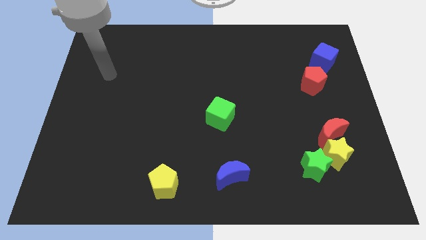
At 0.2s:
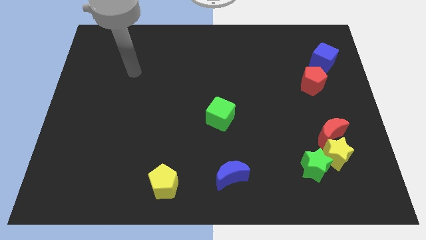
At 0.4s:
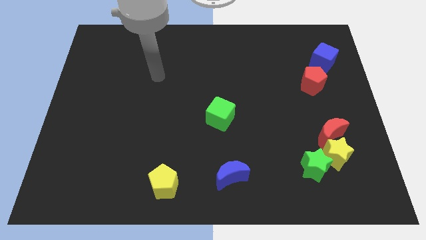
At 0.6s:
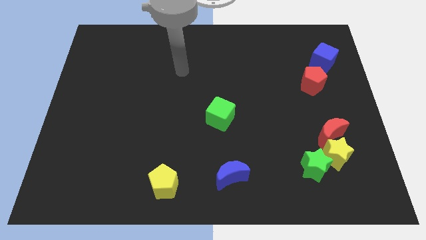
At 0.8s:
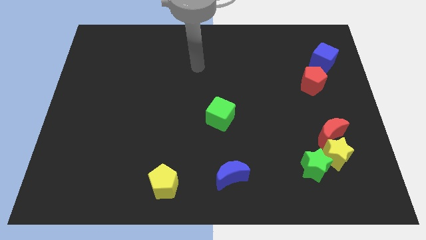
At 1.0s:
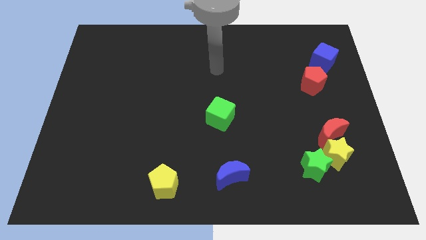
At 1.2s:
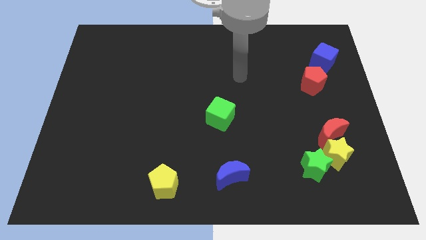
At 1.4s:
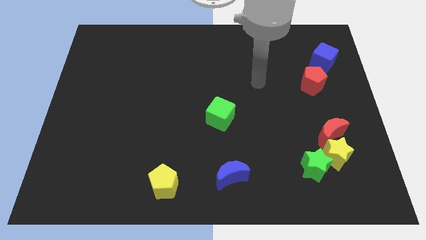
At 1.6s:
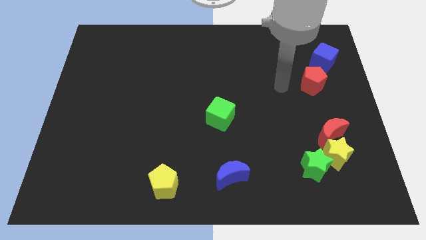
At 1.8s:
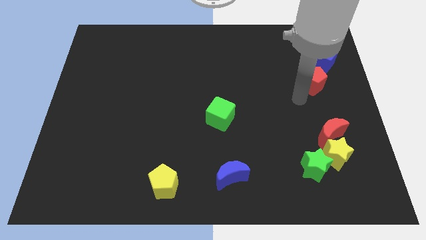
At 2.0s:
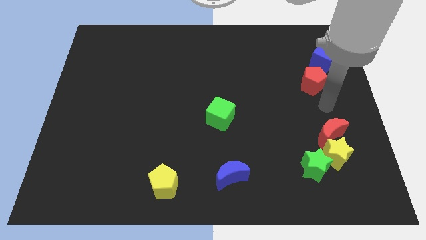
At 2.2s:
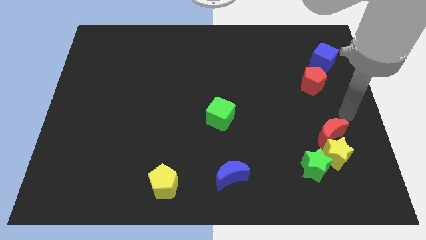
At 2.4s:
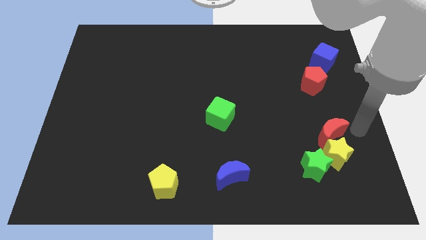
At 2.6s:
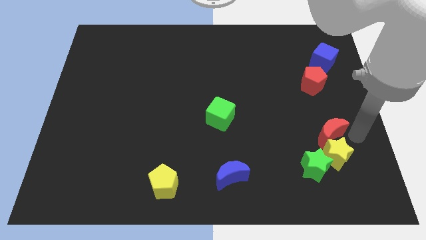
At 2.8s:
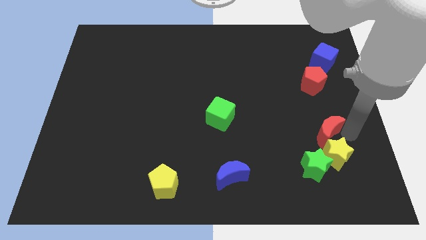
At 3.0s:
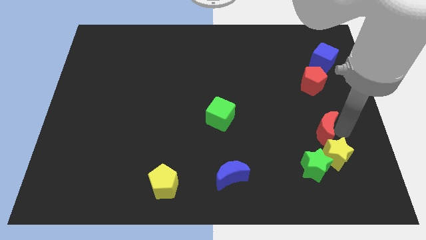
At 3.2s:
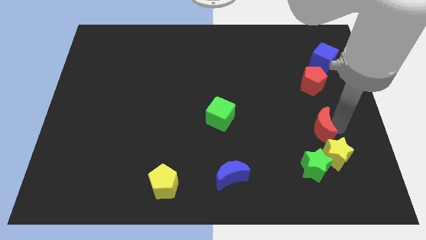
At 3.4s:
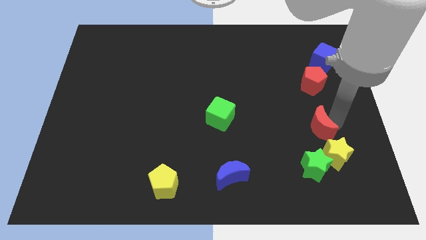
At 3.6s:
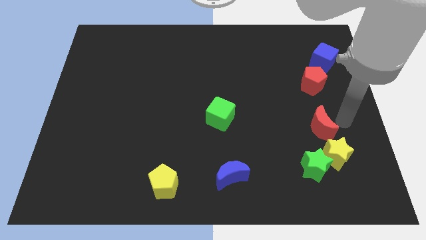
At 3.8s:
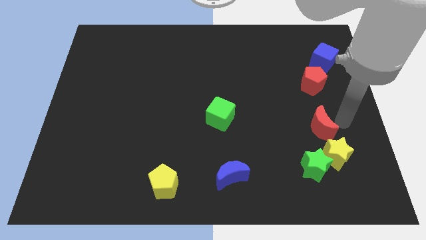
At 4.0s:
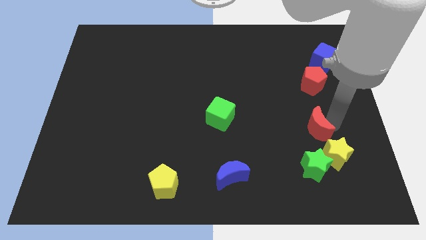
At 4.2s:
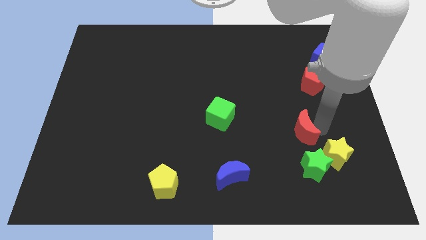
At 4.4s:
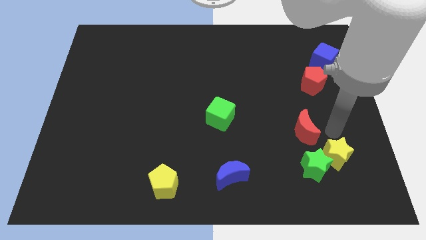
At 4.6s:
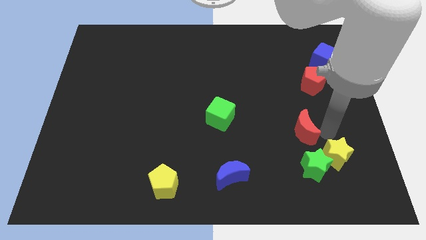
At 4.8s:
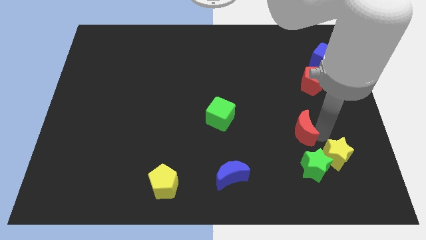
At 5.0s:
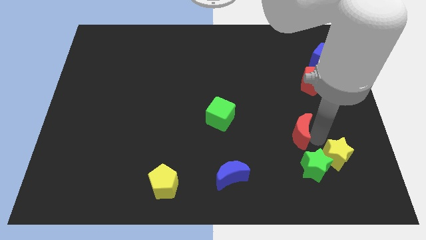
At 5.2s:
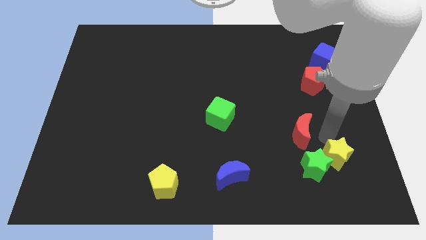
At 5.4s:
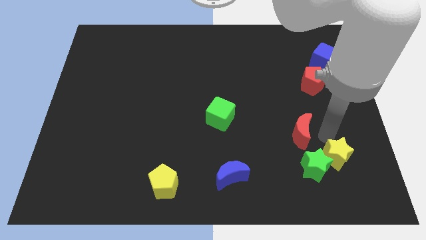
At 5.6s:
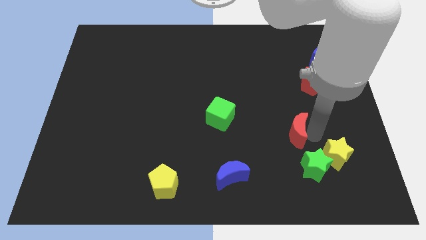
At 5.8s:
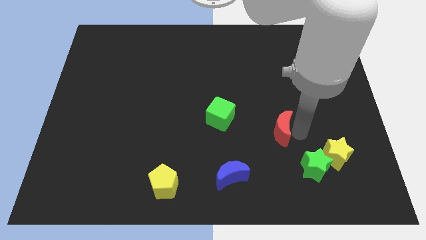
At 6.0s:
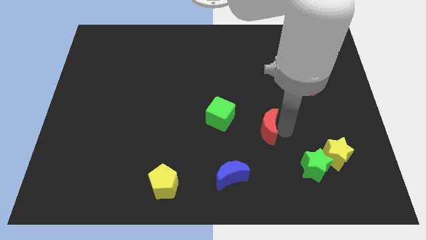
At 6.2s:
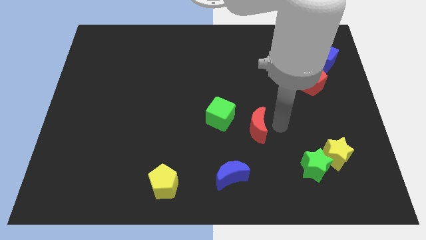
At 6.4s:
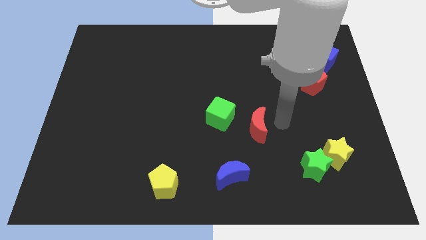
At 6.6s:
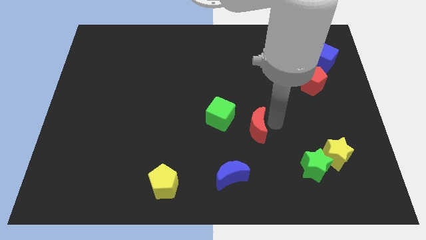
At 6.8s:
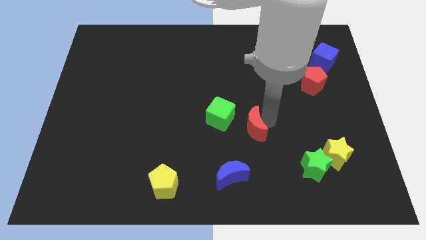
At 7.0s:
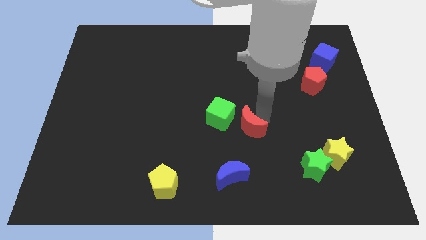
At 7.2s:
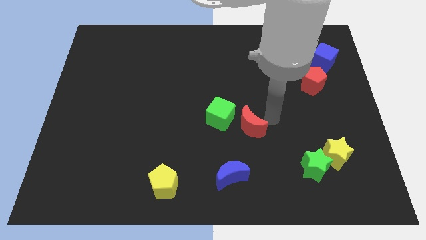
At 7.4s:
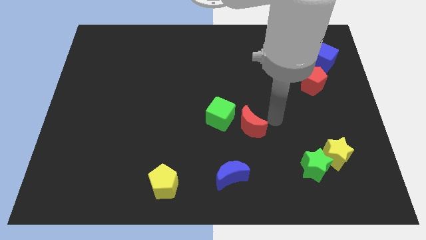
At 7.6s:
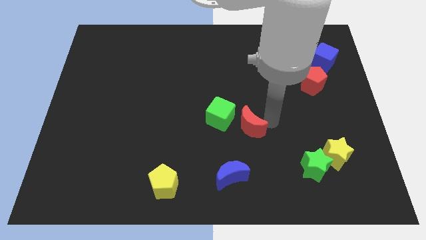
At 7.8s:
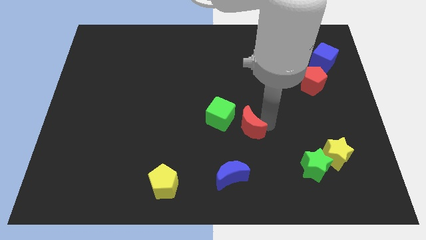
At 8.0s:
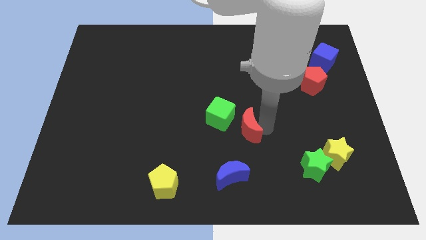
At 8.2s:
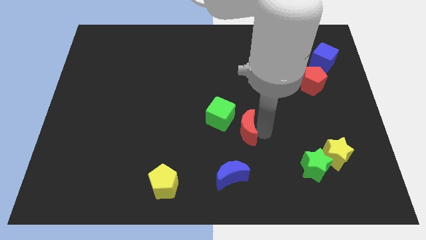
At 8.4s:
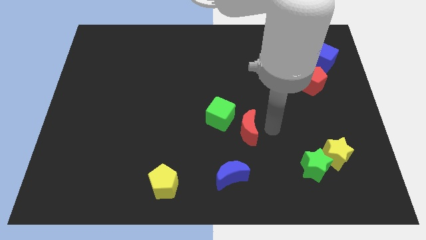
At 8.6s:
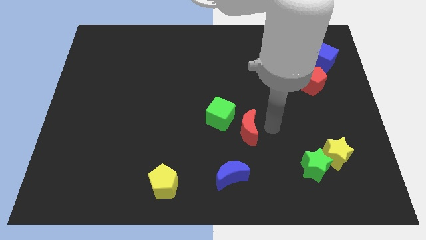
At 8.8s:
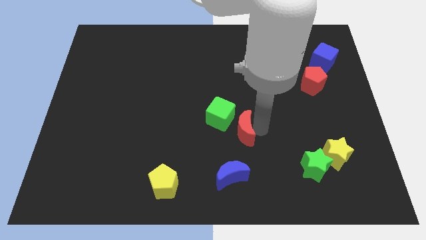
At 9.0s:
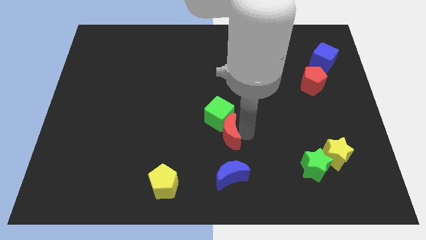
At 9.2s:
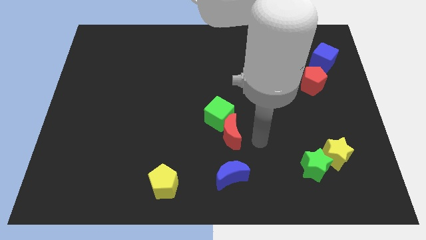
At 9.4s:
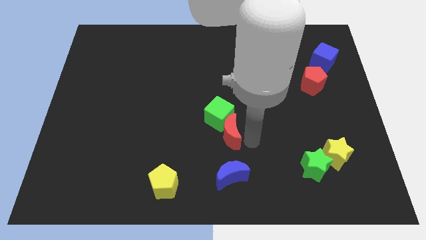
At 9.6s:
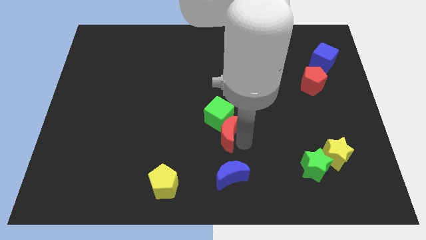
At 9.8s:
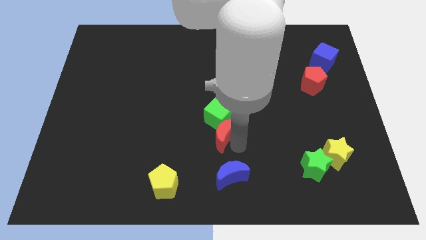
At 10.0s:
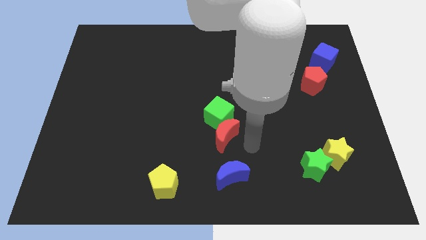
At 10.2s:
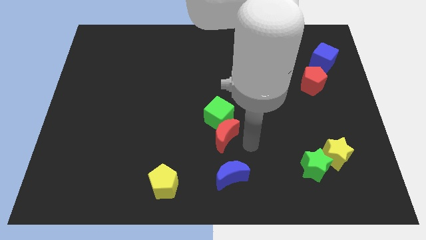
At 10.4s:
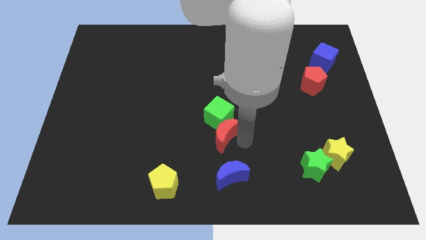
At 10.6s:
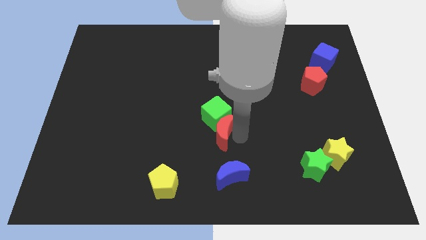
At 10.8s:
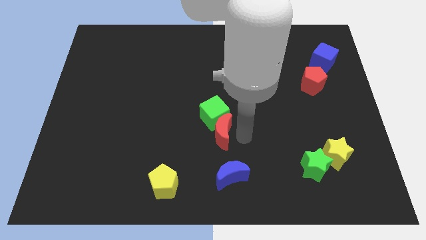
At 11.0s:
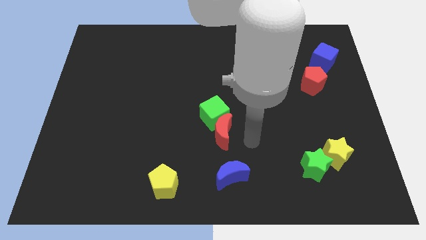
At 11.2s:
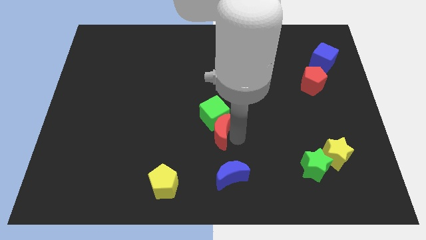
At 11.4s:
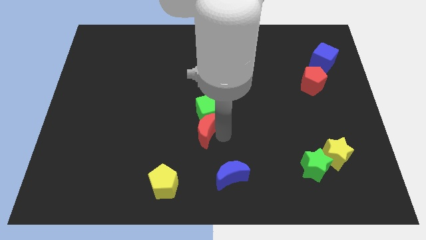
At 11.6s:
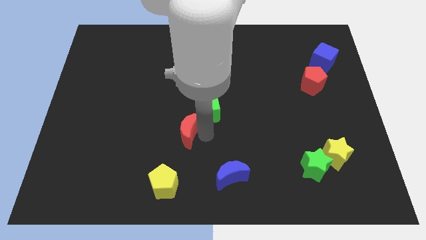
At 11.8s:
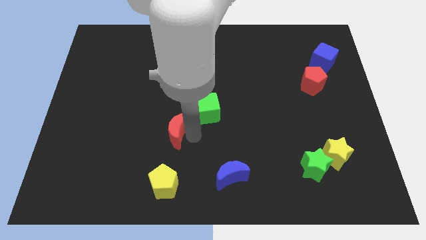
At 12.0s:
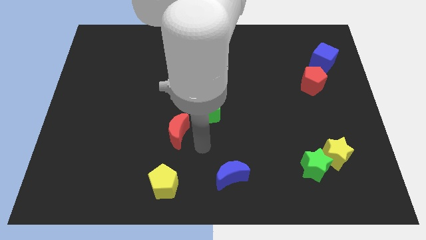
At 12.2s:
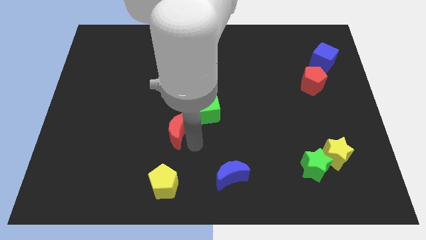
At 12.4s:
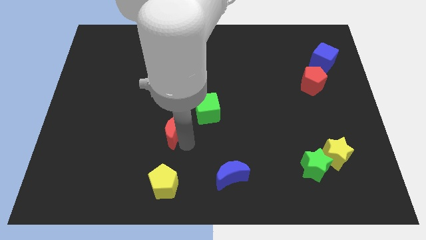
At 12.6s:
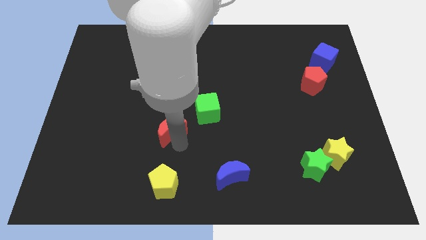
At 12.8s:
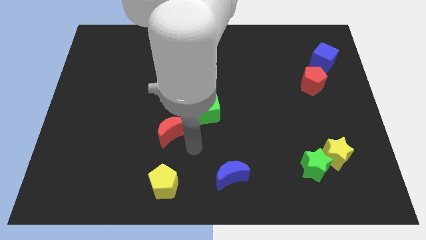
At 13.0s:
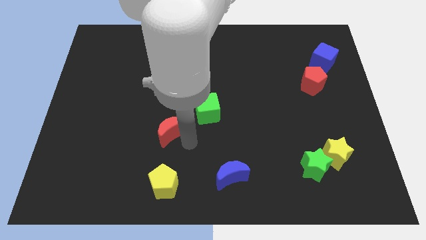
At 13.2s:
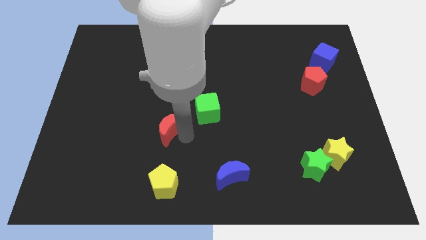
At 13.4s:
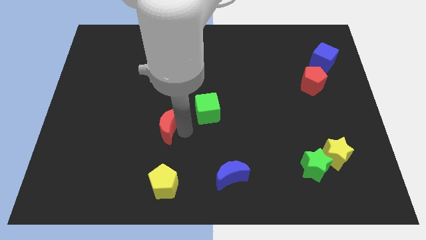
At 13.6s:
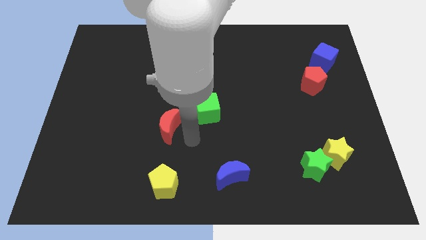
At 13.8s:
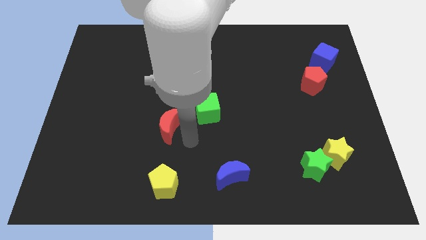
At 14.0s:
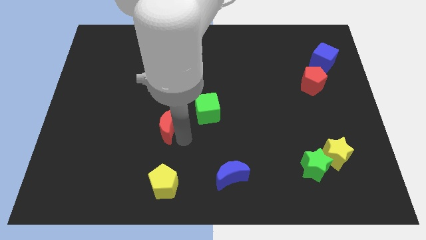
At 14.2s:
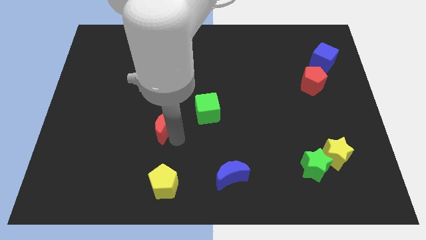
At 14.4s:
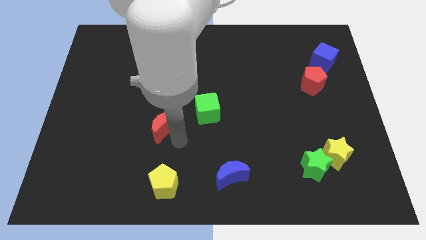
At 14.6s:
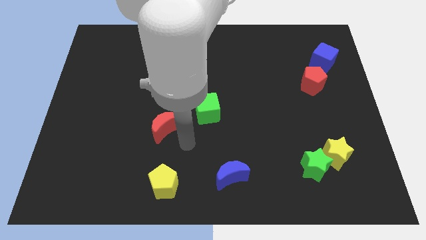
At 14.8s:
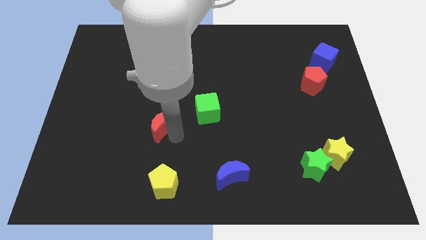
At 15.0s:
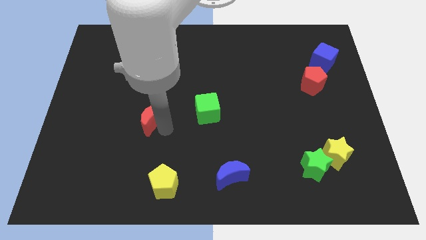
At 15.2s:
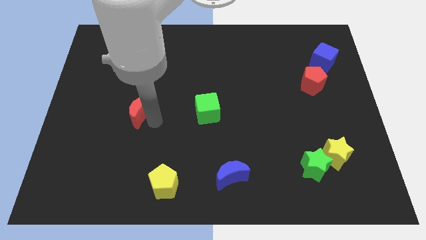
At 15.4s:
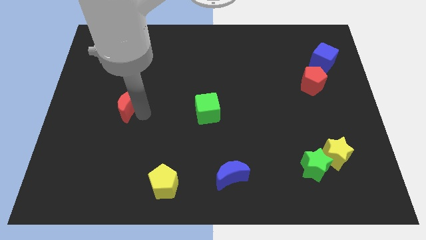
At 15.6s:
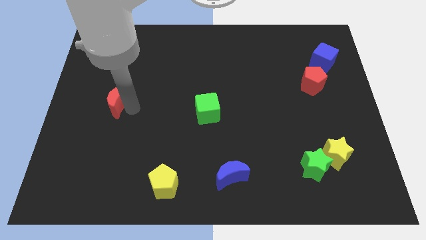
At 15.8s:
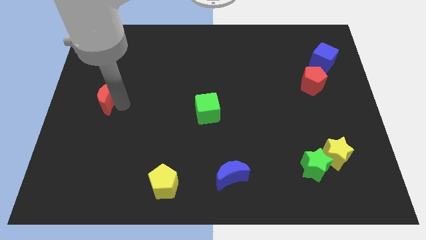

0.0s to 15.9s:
push the red moon to the center left
